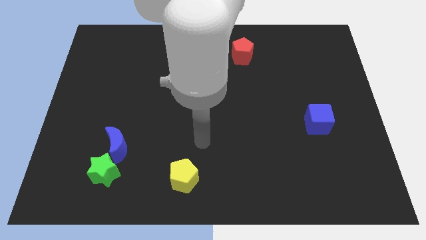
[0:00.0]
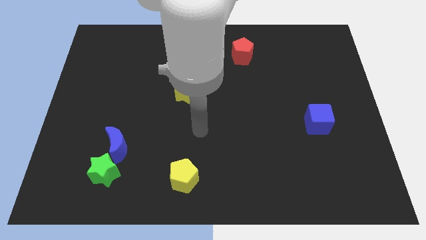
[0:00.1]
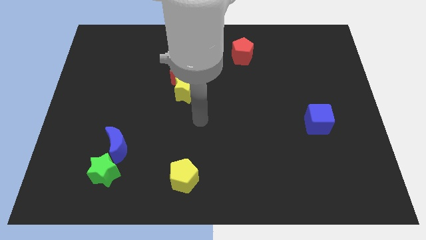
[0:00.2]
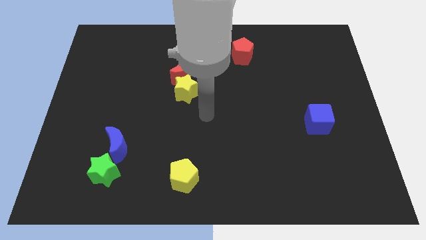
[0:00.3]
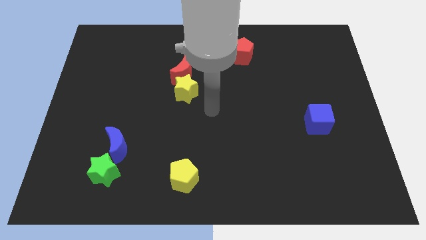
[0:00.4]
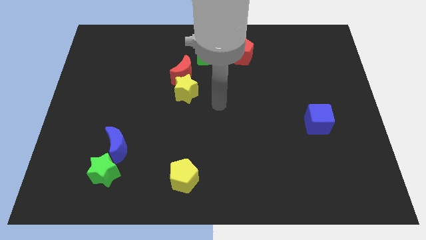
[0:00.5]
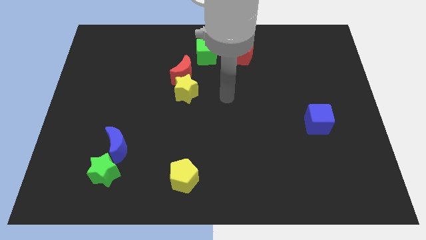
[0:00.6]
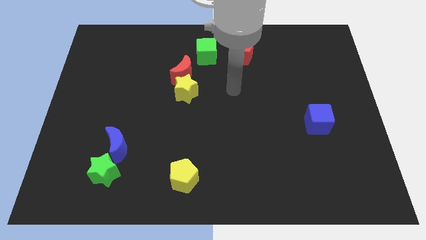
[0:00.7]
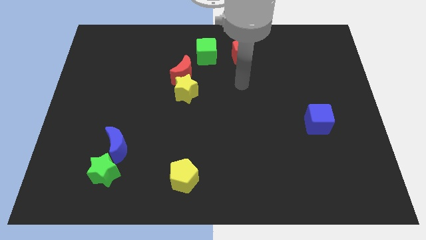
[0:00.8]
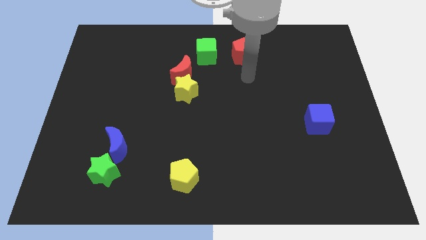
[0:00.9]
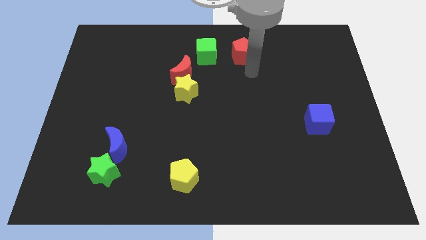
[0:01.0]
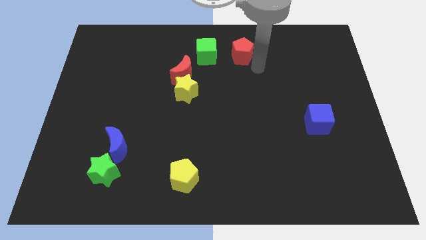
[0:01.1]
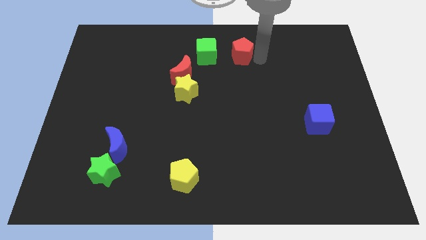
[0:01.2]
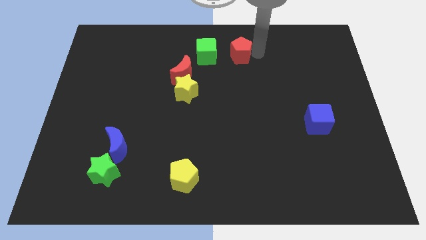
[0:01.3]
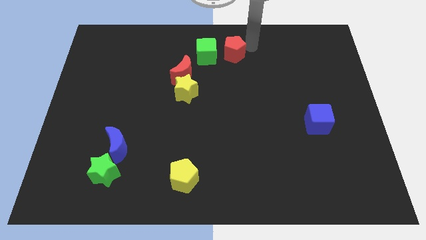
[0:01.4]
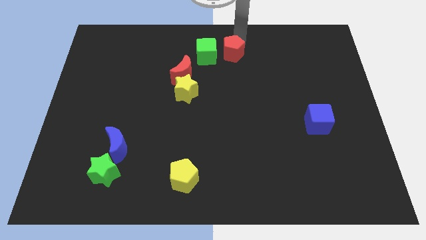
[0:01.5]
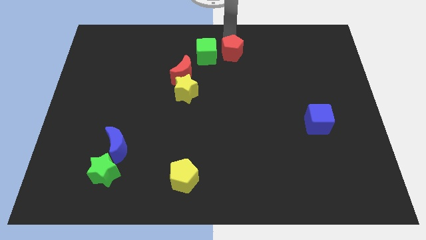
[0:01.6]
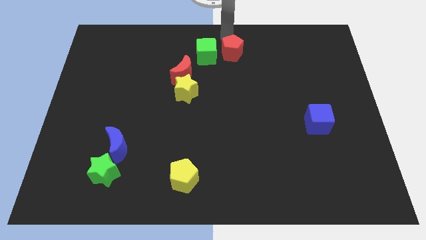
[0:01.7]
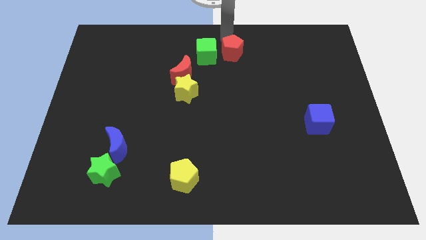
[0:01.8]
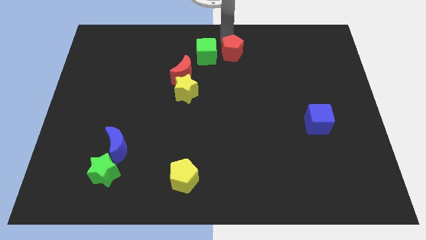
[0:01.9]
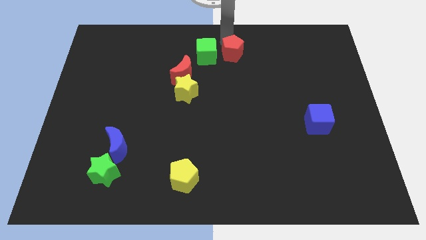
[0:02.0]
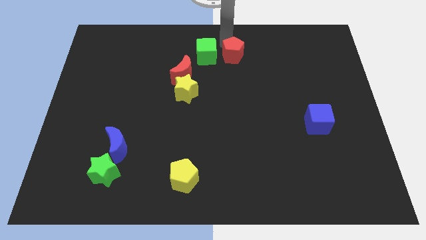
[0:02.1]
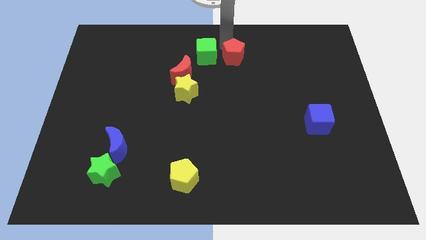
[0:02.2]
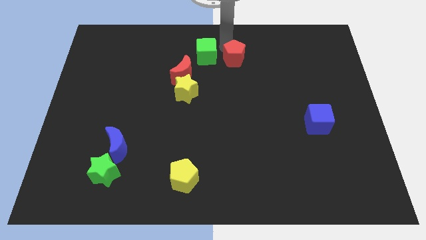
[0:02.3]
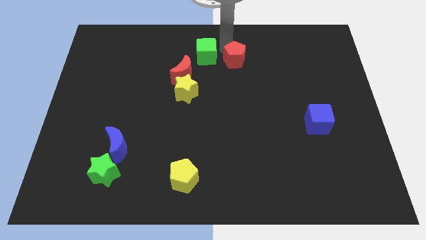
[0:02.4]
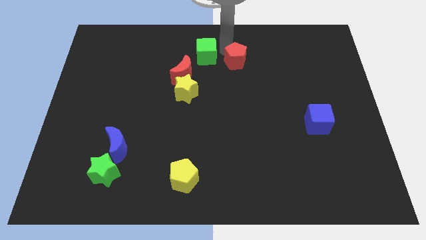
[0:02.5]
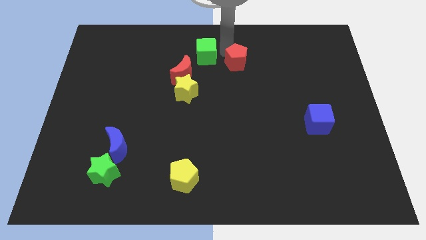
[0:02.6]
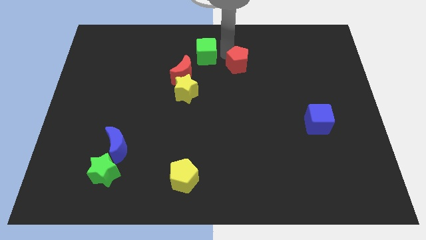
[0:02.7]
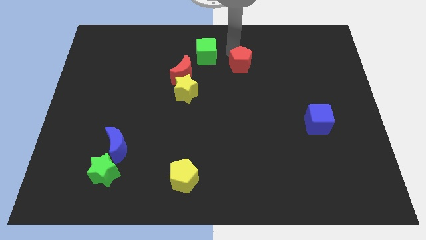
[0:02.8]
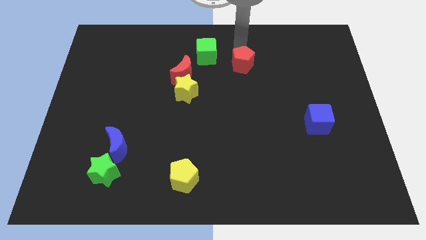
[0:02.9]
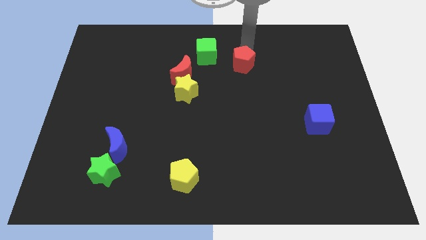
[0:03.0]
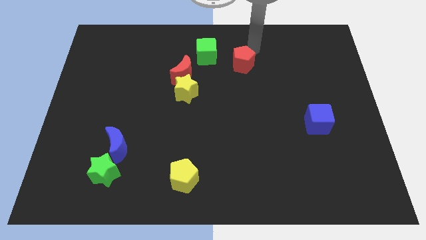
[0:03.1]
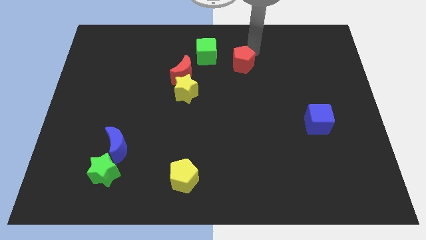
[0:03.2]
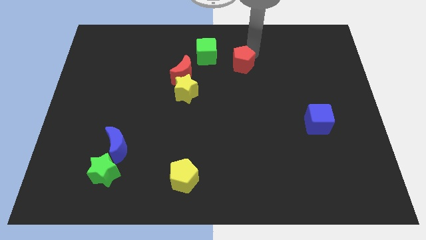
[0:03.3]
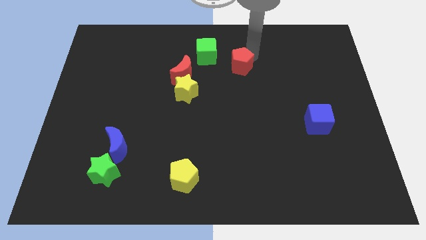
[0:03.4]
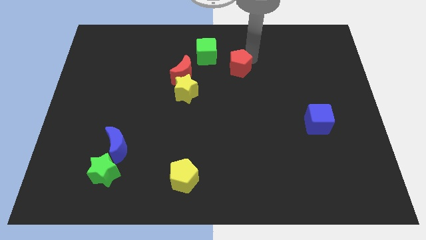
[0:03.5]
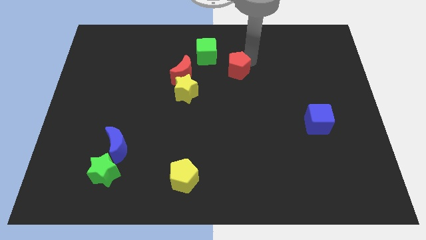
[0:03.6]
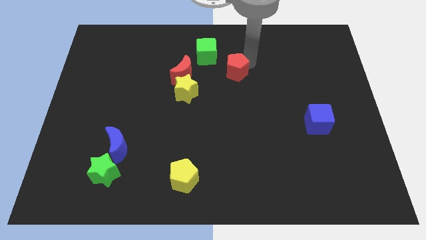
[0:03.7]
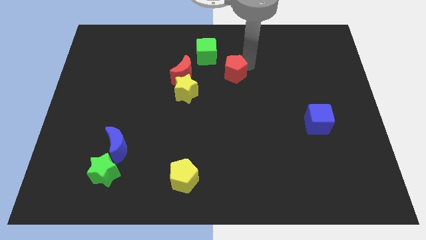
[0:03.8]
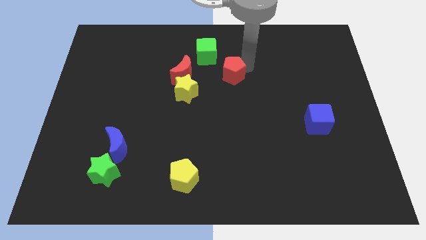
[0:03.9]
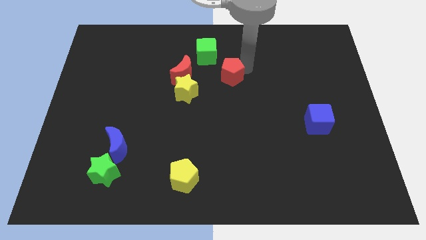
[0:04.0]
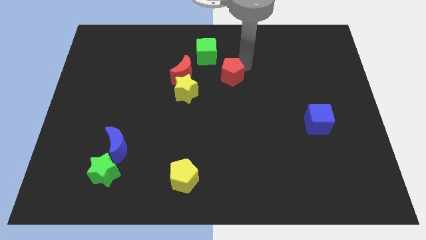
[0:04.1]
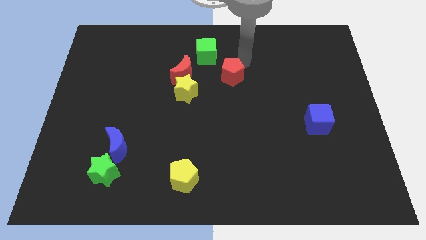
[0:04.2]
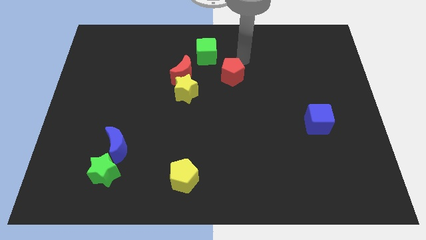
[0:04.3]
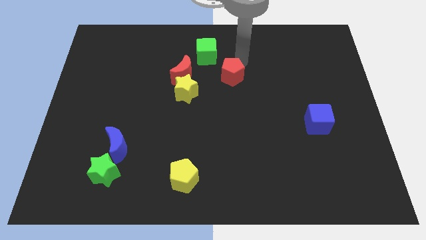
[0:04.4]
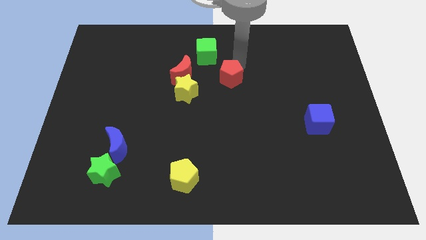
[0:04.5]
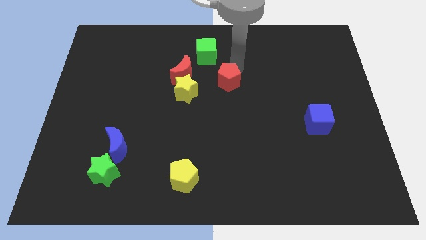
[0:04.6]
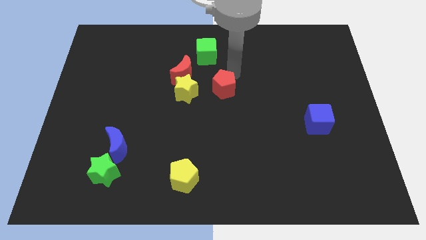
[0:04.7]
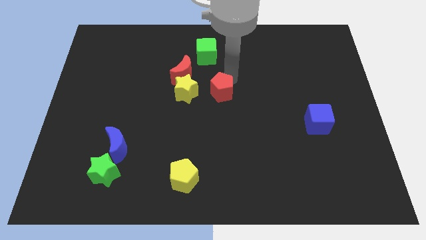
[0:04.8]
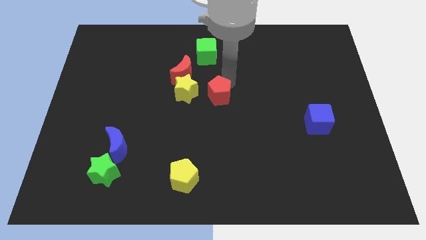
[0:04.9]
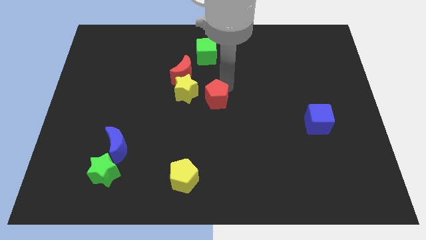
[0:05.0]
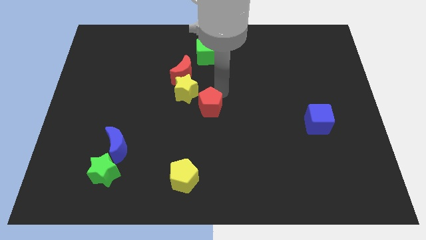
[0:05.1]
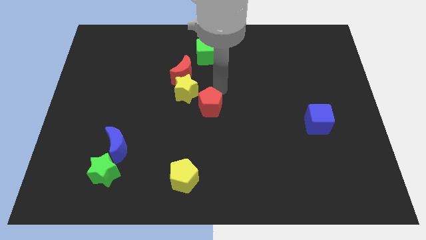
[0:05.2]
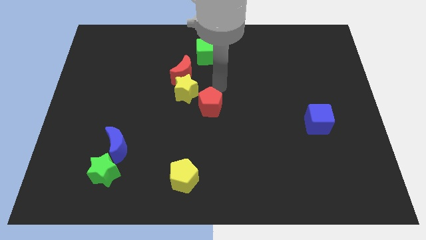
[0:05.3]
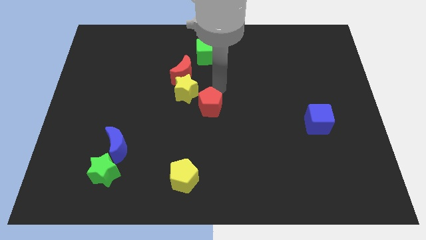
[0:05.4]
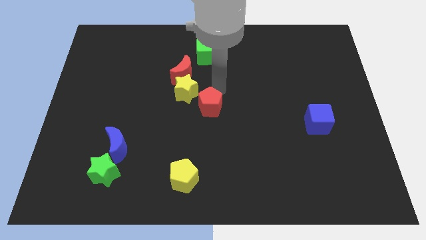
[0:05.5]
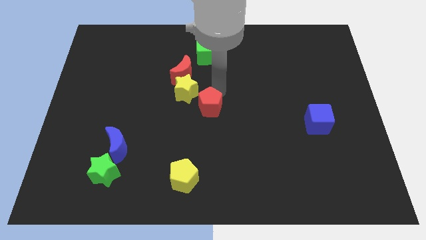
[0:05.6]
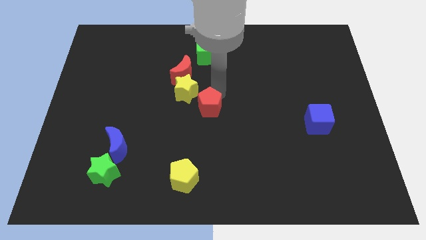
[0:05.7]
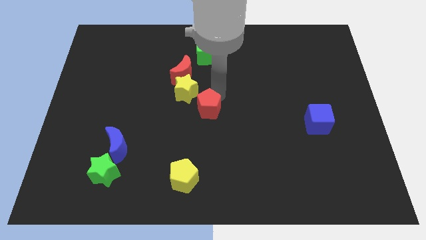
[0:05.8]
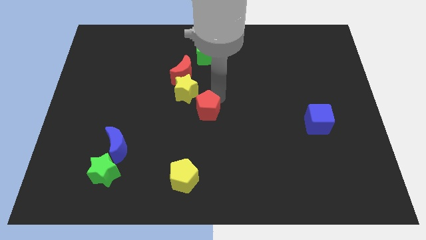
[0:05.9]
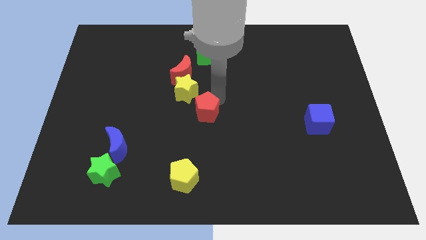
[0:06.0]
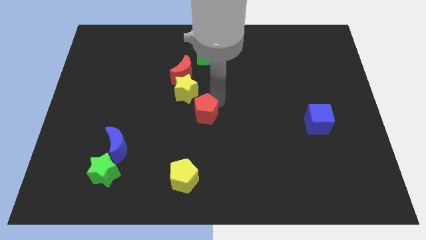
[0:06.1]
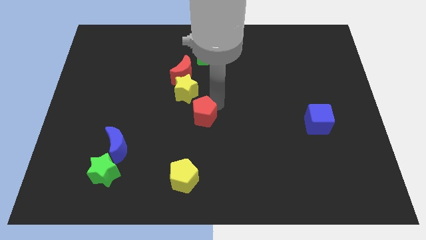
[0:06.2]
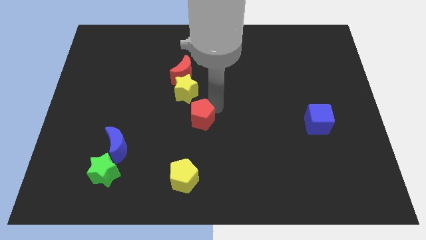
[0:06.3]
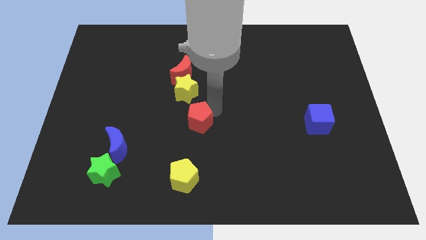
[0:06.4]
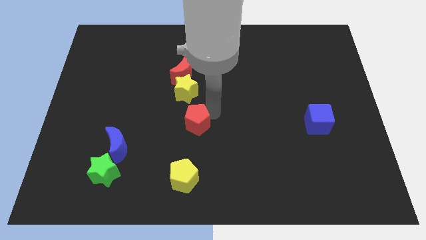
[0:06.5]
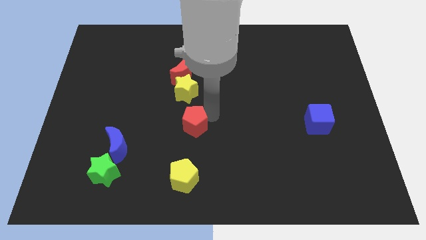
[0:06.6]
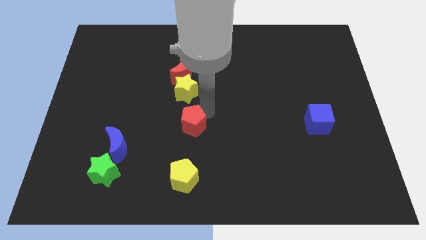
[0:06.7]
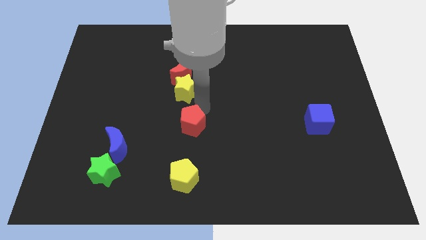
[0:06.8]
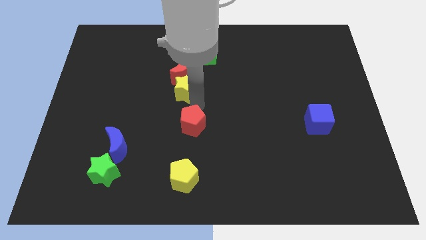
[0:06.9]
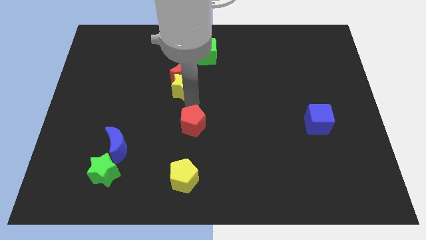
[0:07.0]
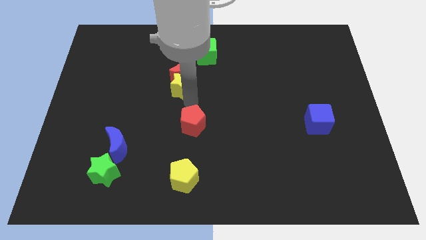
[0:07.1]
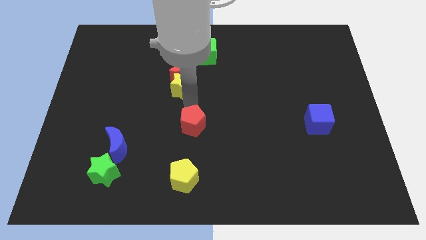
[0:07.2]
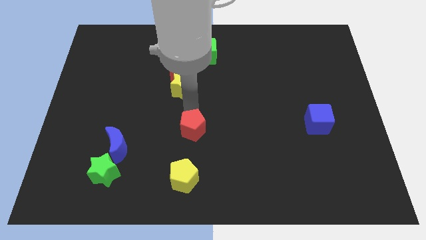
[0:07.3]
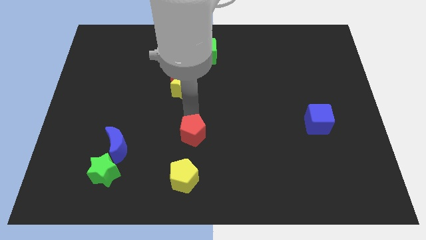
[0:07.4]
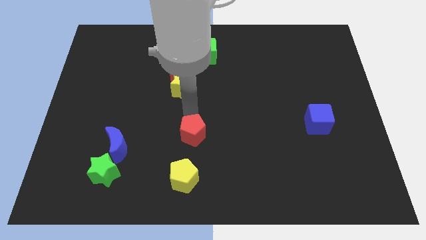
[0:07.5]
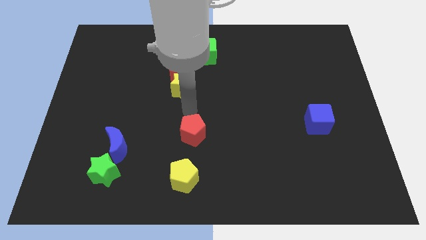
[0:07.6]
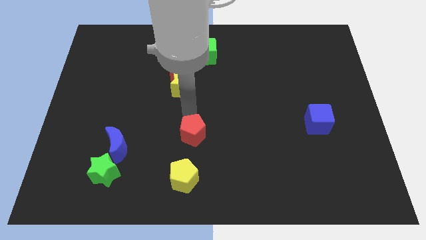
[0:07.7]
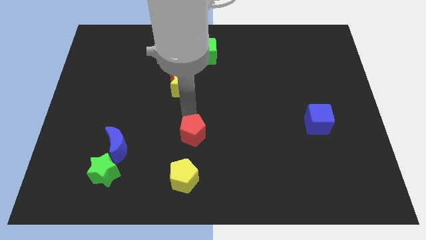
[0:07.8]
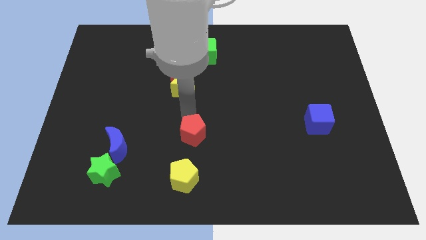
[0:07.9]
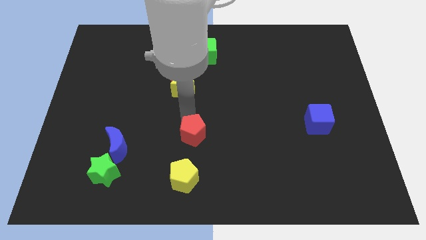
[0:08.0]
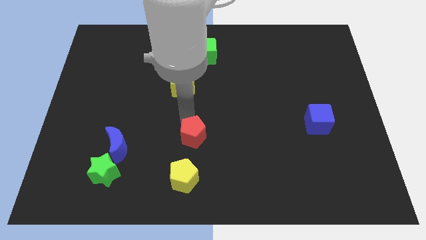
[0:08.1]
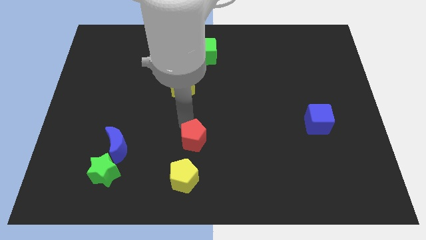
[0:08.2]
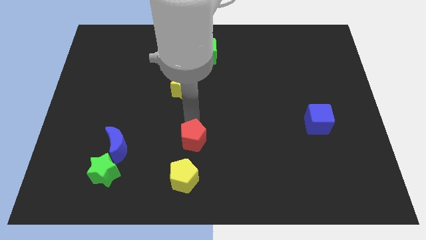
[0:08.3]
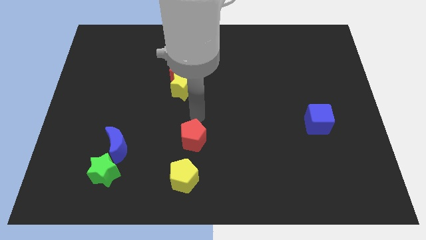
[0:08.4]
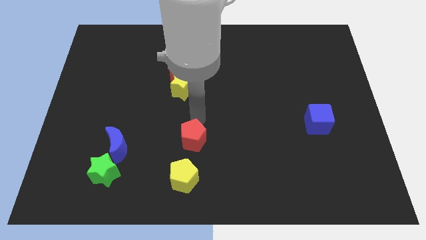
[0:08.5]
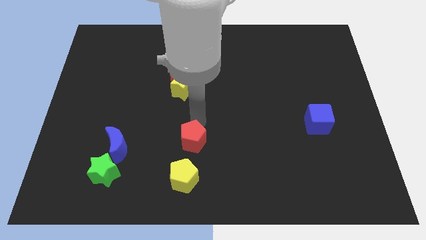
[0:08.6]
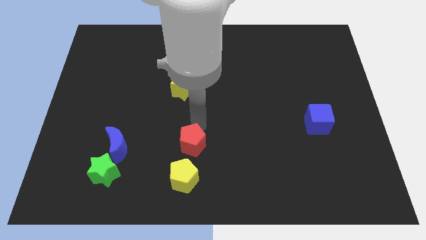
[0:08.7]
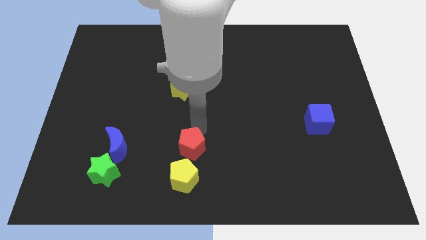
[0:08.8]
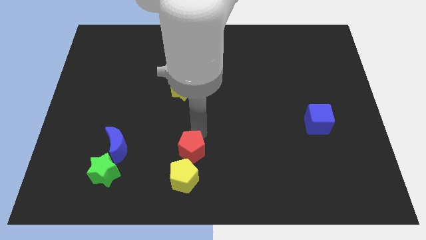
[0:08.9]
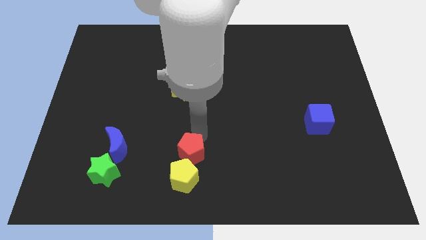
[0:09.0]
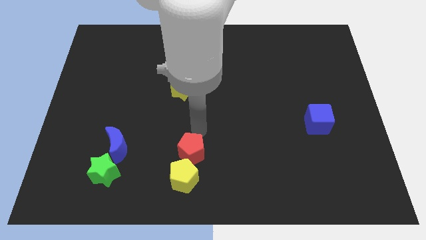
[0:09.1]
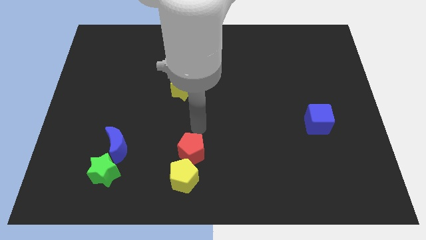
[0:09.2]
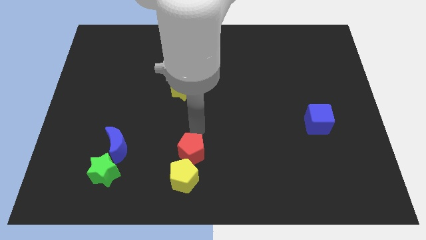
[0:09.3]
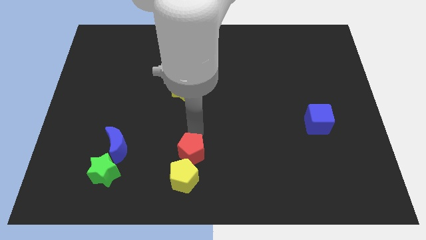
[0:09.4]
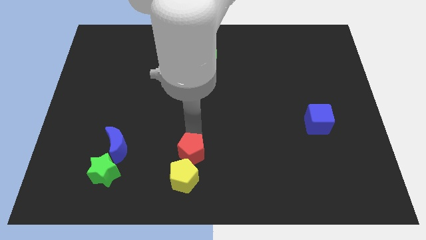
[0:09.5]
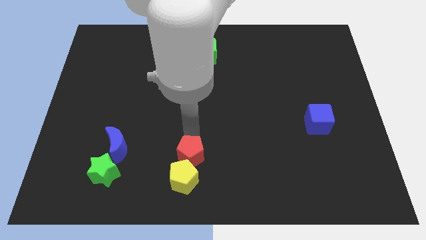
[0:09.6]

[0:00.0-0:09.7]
put the red pentagon to the yellow pentagon
